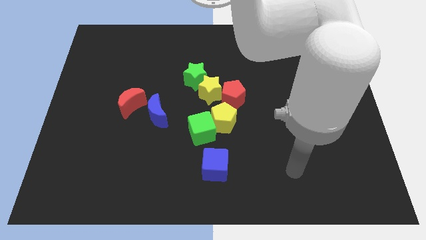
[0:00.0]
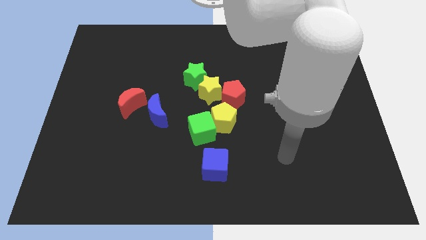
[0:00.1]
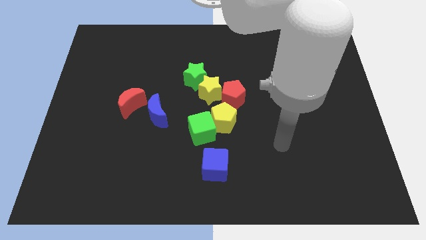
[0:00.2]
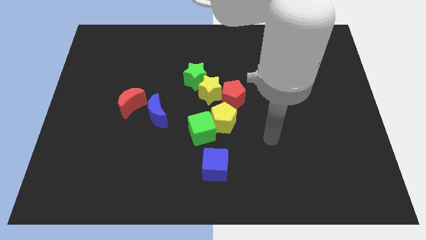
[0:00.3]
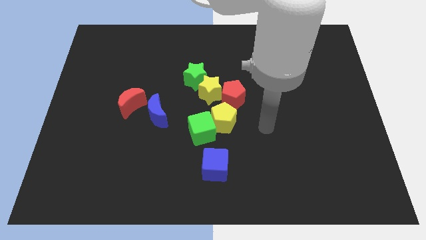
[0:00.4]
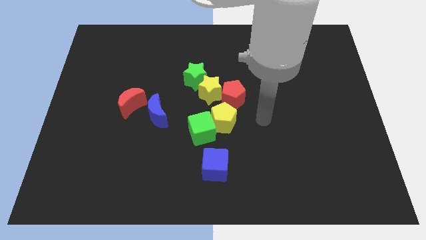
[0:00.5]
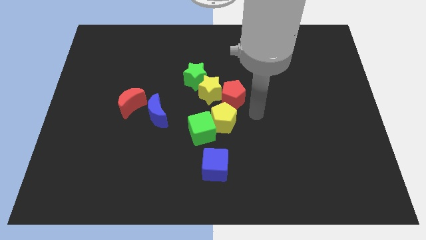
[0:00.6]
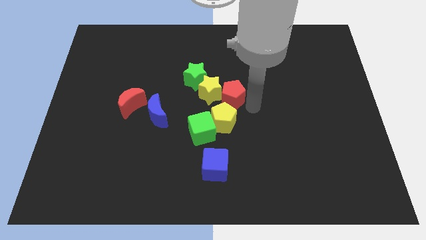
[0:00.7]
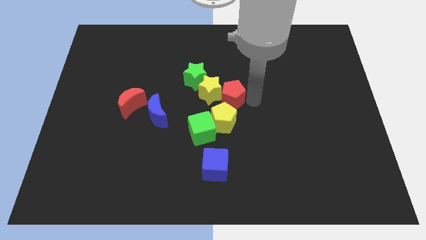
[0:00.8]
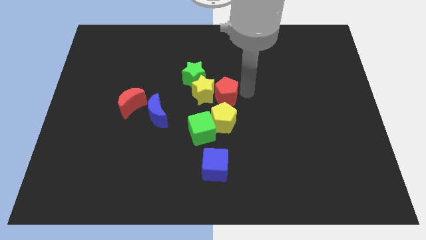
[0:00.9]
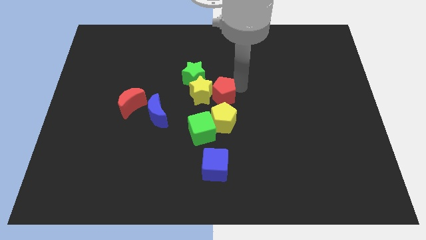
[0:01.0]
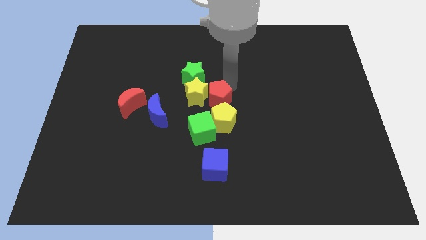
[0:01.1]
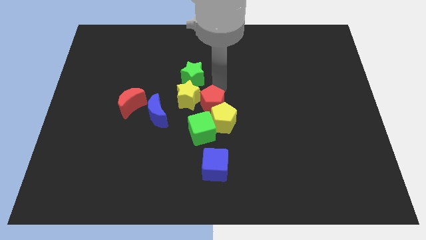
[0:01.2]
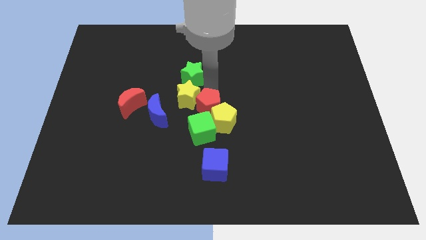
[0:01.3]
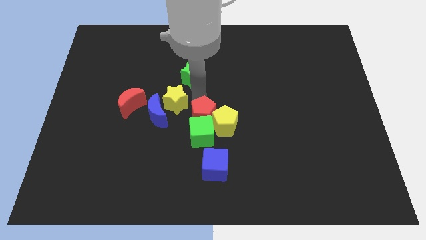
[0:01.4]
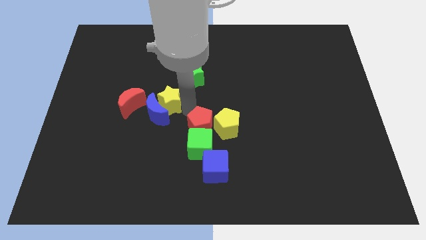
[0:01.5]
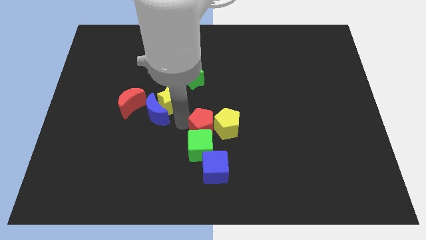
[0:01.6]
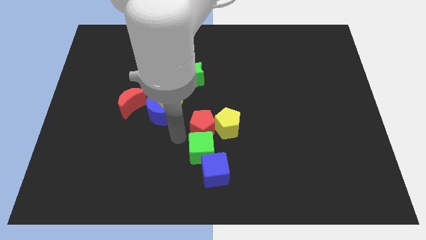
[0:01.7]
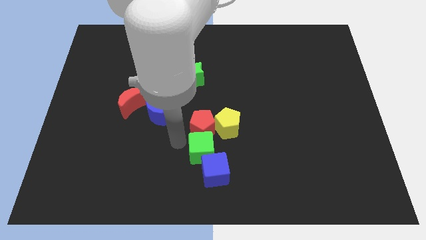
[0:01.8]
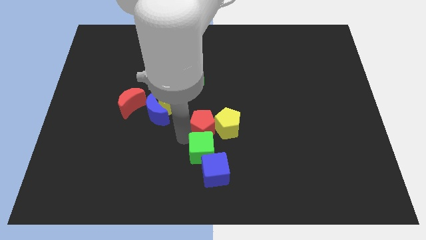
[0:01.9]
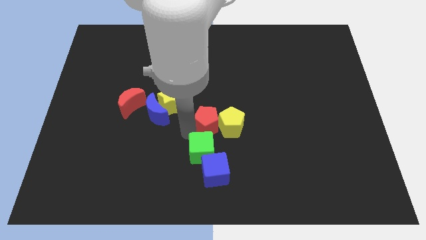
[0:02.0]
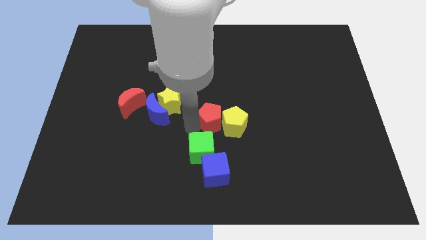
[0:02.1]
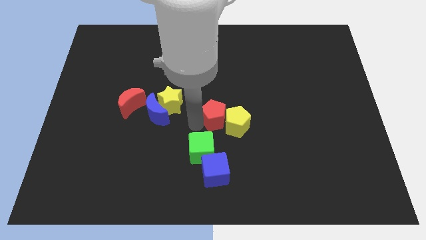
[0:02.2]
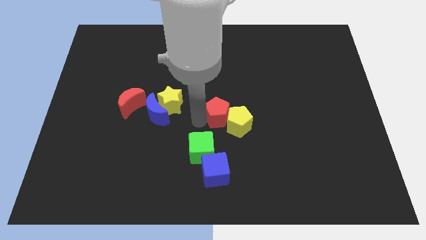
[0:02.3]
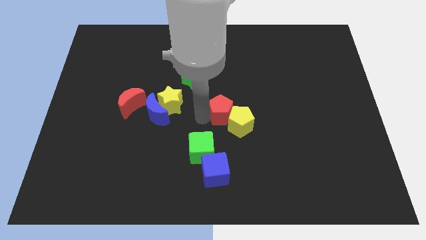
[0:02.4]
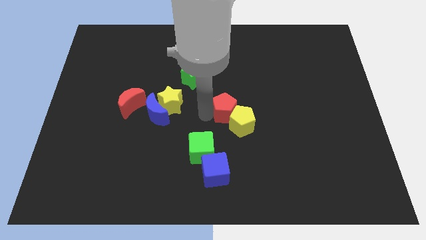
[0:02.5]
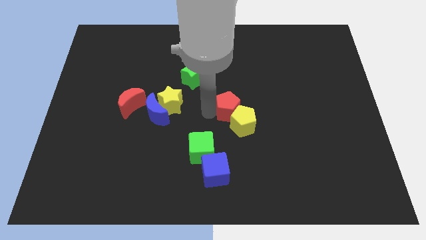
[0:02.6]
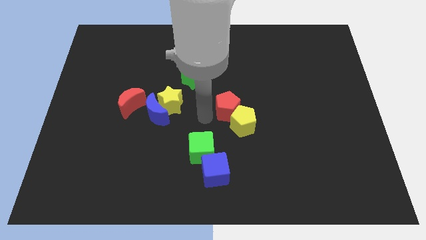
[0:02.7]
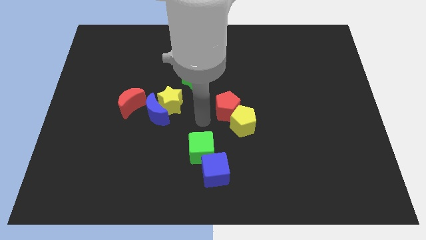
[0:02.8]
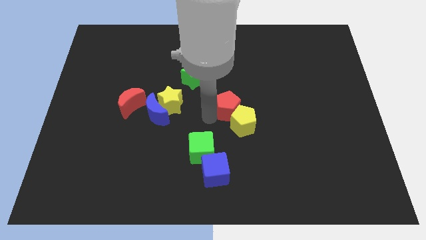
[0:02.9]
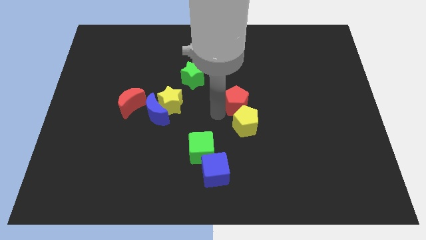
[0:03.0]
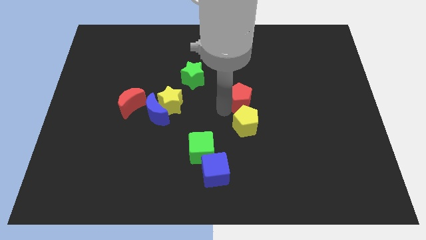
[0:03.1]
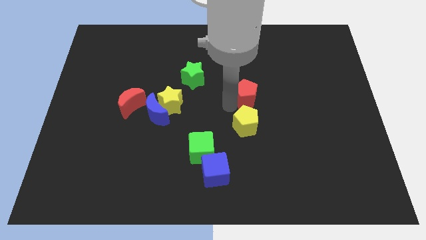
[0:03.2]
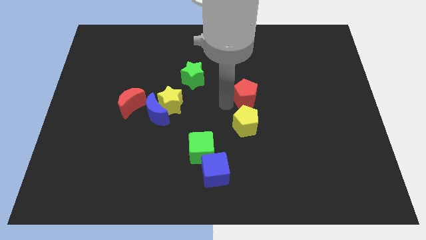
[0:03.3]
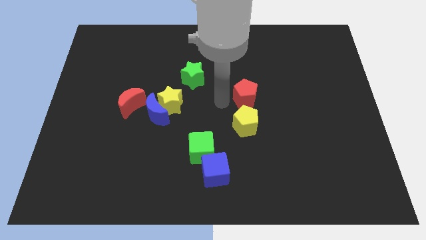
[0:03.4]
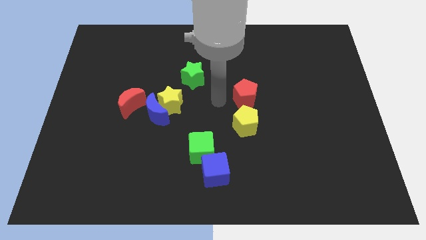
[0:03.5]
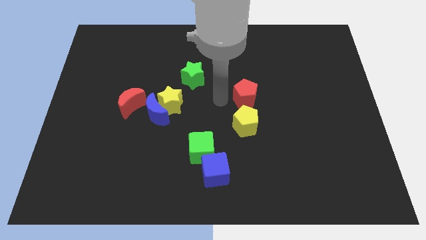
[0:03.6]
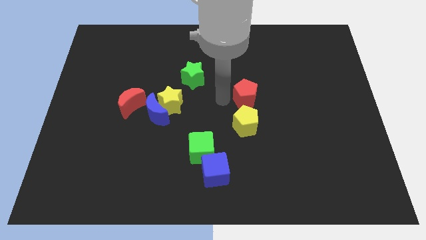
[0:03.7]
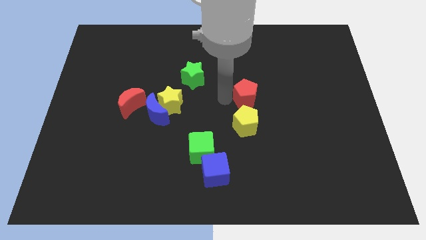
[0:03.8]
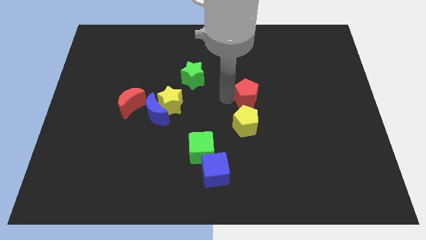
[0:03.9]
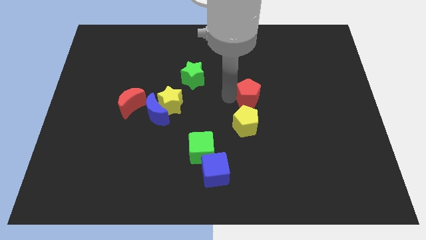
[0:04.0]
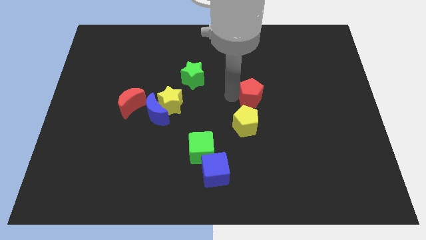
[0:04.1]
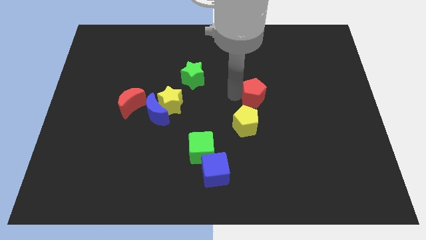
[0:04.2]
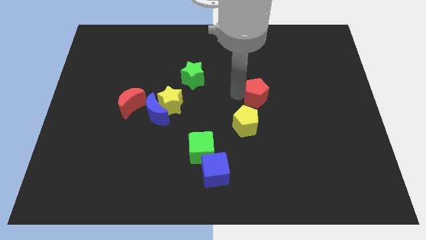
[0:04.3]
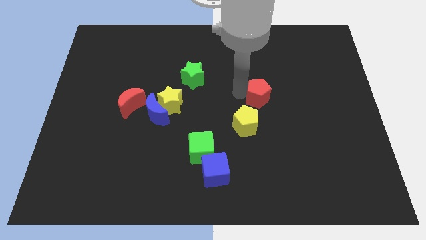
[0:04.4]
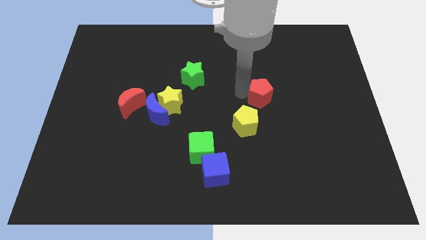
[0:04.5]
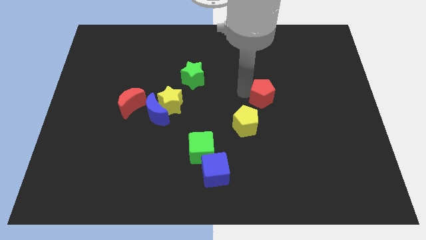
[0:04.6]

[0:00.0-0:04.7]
slightly slide the red pentagon right

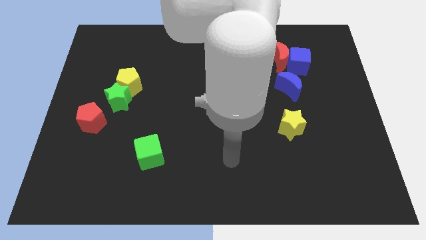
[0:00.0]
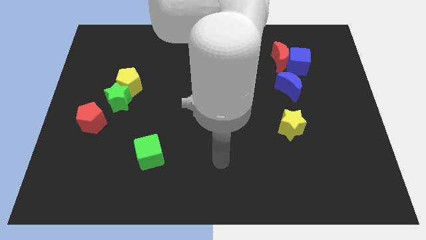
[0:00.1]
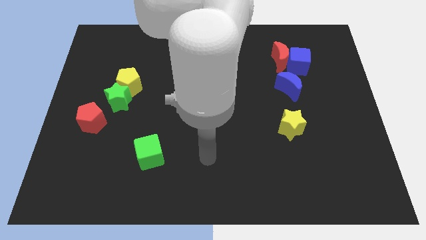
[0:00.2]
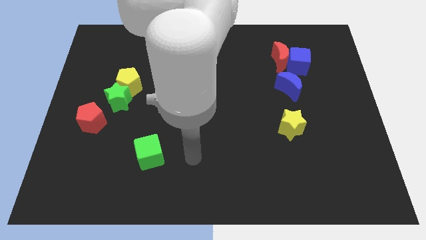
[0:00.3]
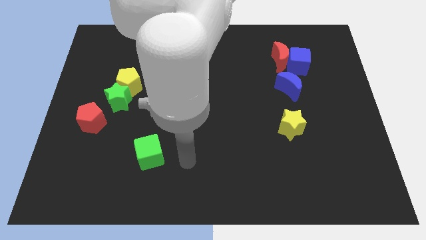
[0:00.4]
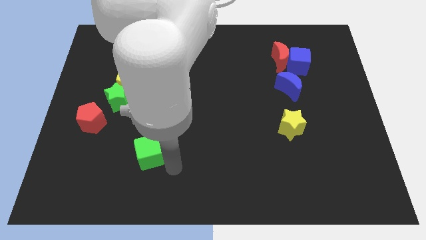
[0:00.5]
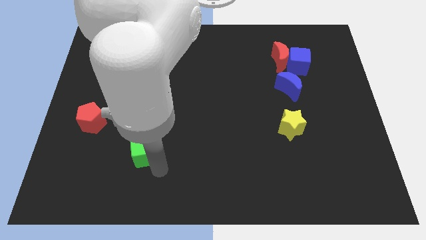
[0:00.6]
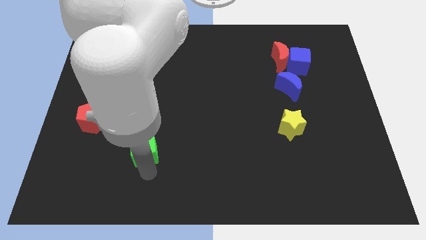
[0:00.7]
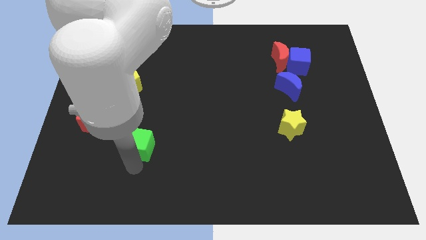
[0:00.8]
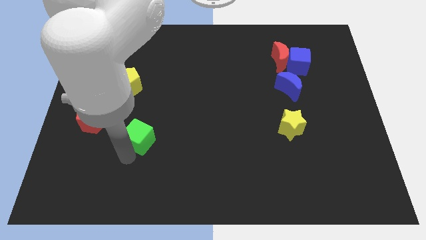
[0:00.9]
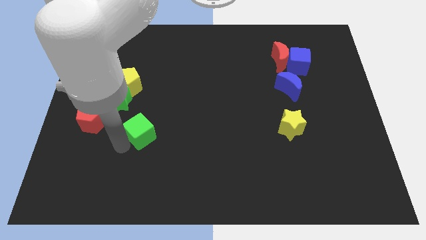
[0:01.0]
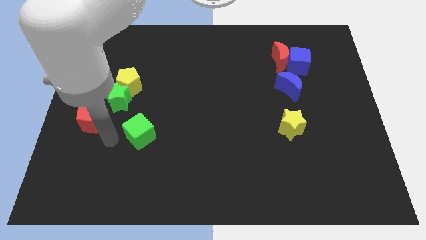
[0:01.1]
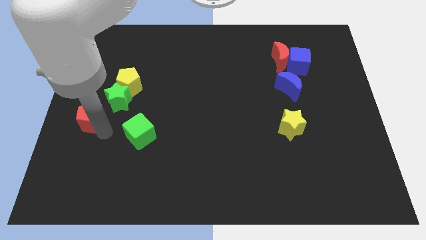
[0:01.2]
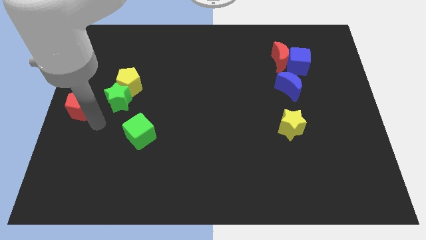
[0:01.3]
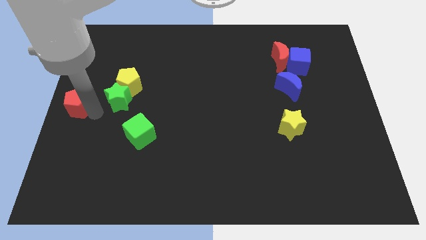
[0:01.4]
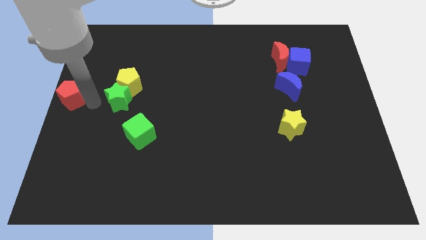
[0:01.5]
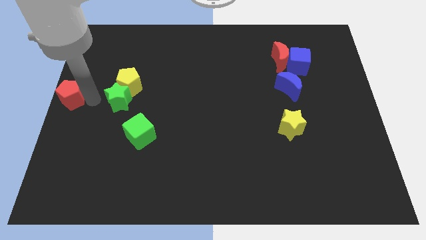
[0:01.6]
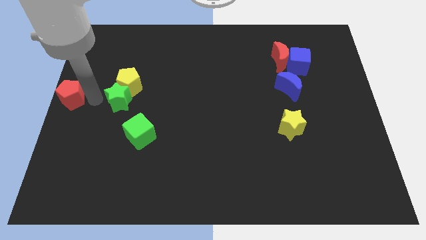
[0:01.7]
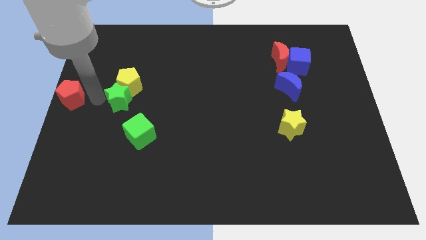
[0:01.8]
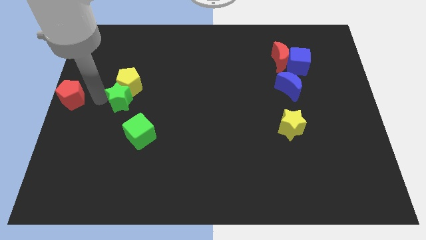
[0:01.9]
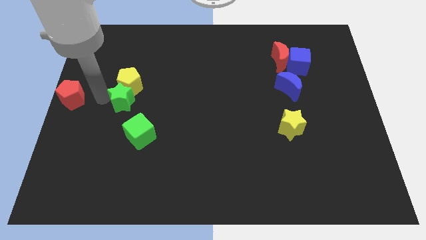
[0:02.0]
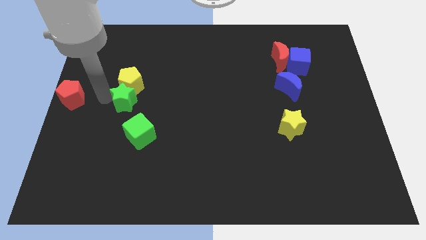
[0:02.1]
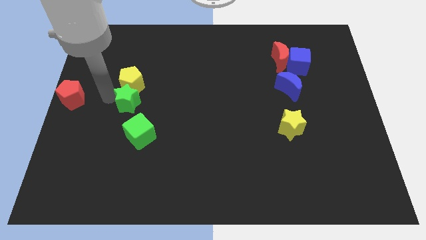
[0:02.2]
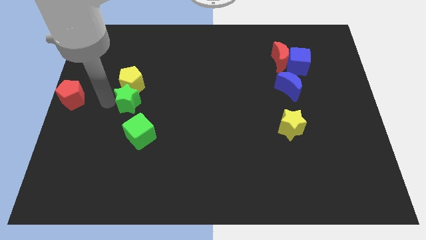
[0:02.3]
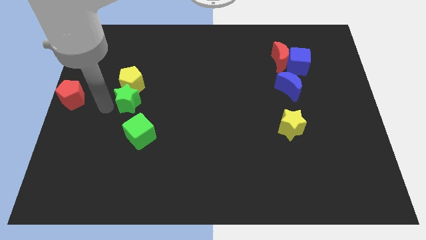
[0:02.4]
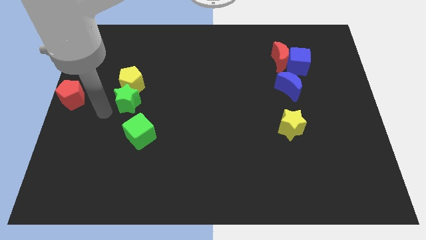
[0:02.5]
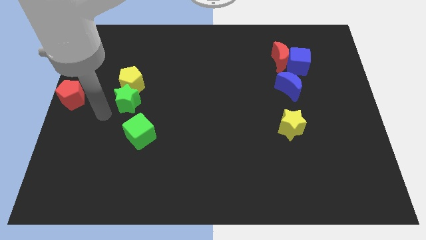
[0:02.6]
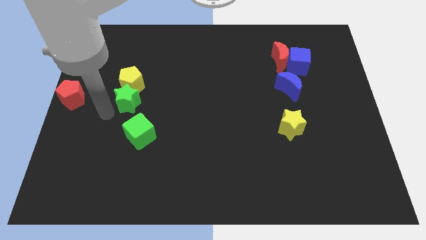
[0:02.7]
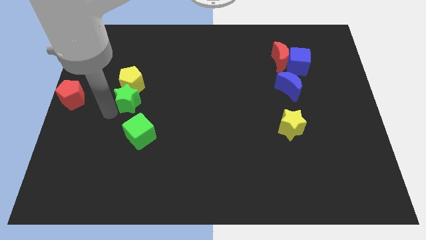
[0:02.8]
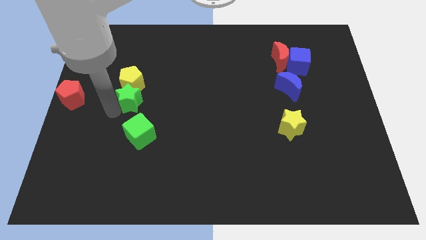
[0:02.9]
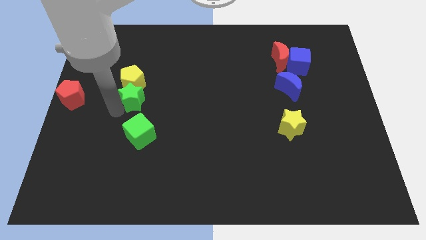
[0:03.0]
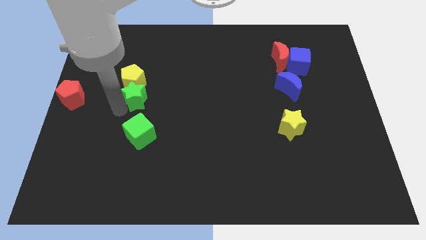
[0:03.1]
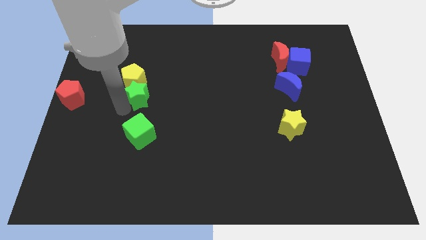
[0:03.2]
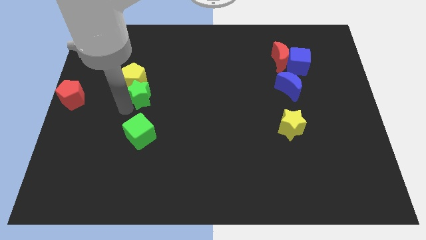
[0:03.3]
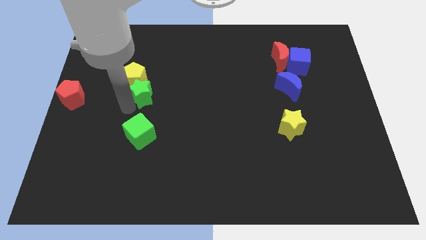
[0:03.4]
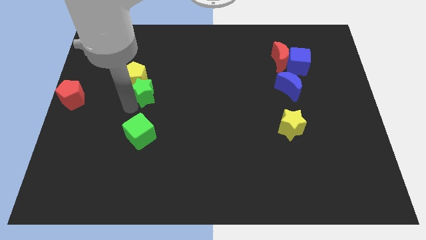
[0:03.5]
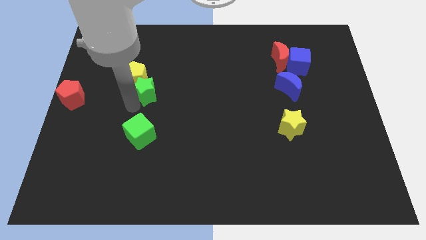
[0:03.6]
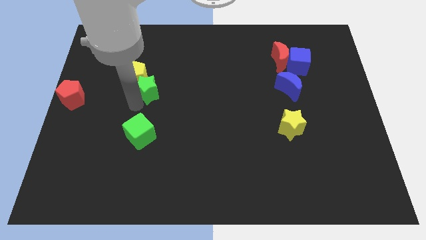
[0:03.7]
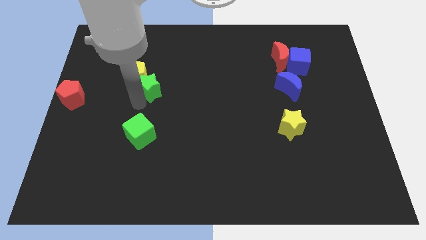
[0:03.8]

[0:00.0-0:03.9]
push the green star a bit up and right
